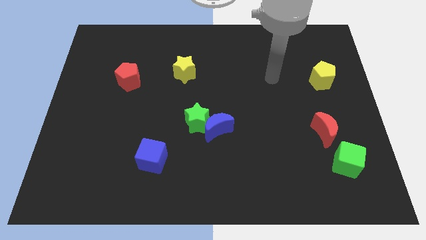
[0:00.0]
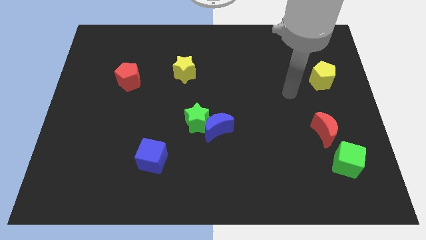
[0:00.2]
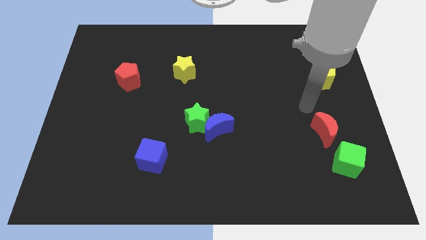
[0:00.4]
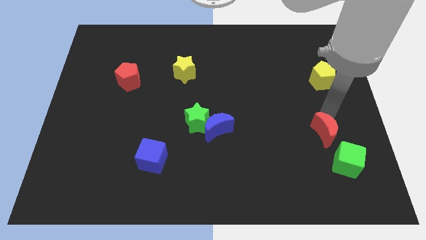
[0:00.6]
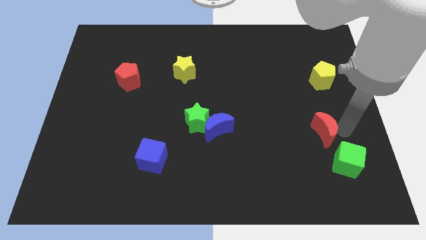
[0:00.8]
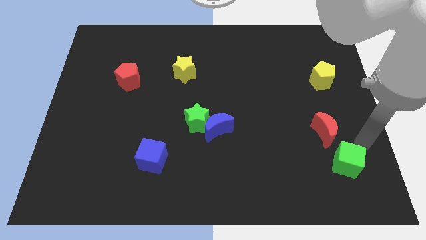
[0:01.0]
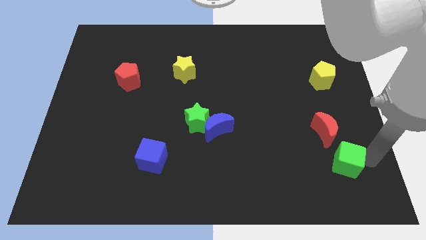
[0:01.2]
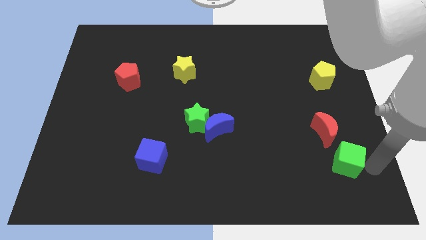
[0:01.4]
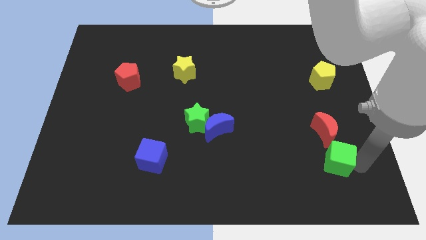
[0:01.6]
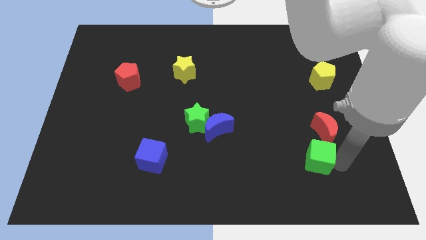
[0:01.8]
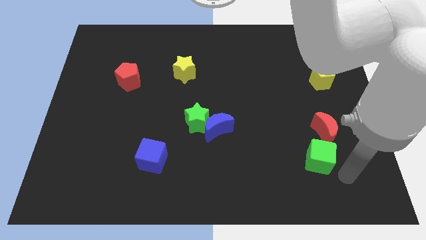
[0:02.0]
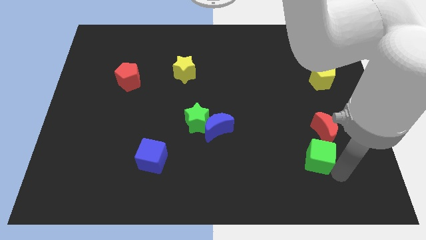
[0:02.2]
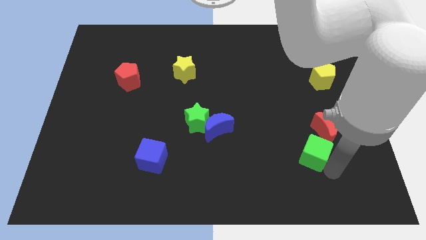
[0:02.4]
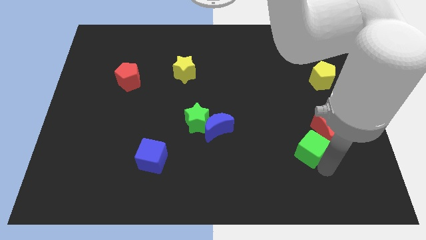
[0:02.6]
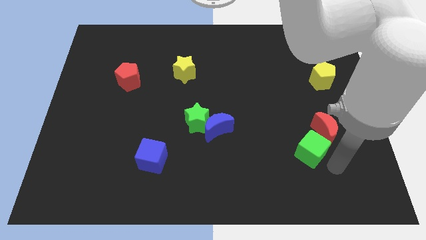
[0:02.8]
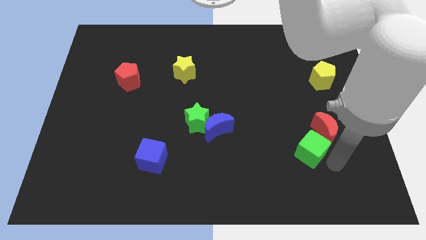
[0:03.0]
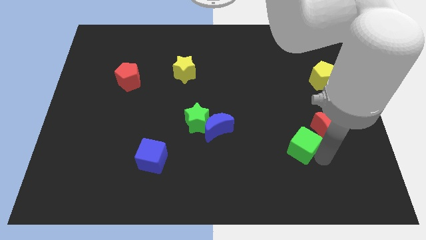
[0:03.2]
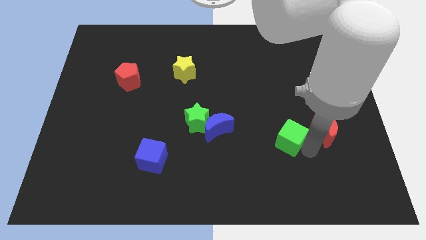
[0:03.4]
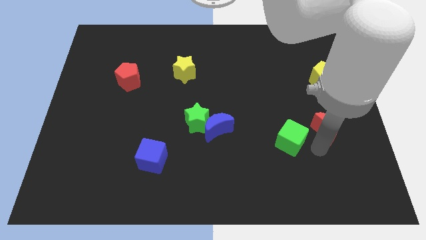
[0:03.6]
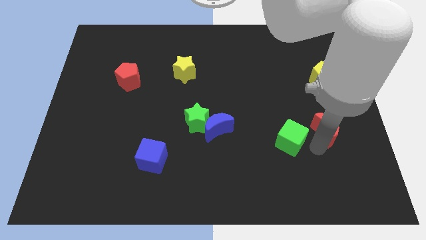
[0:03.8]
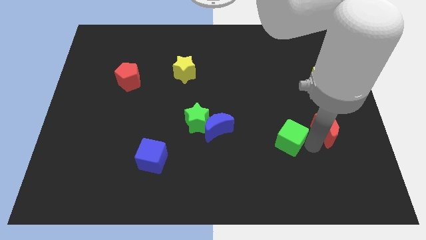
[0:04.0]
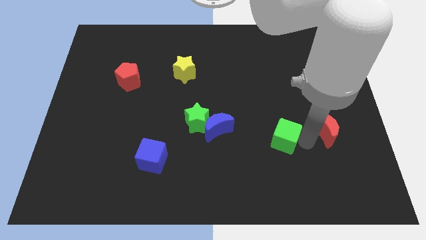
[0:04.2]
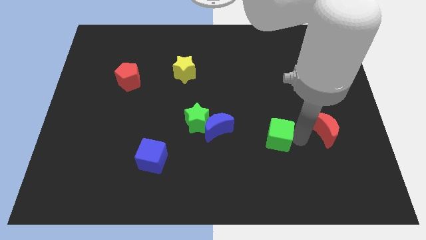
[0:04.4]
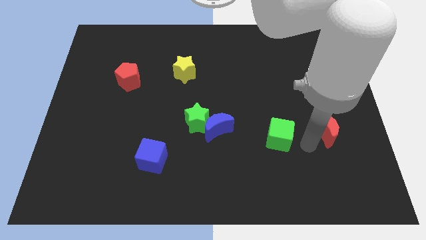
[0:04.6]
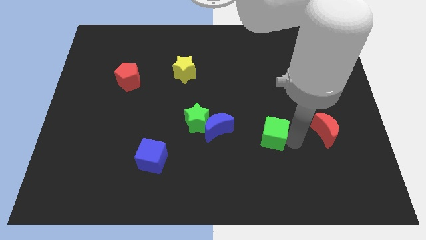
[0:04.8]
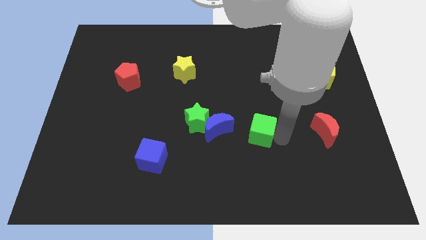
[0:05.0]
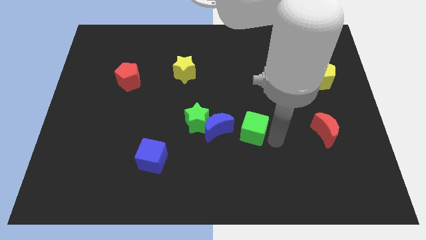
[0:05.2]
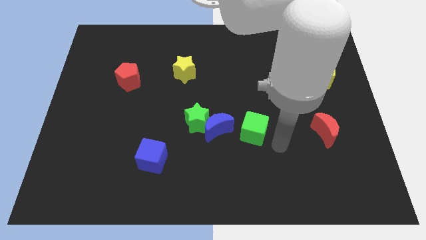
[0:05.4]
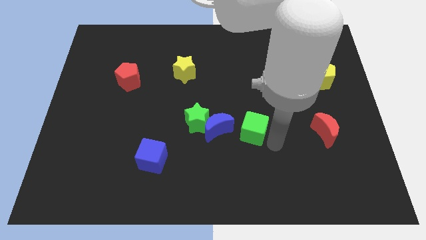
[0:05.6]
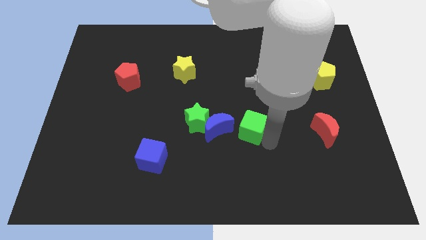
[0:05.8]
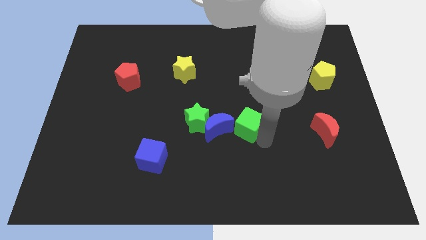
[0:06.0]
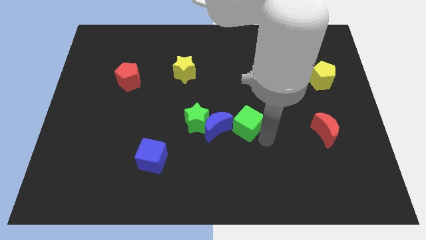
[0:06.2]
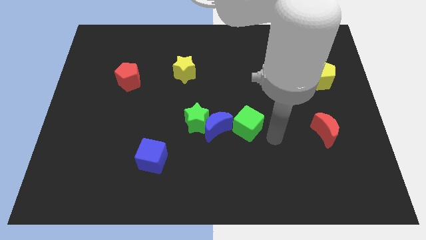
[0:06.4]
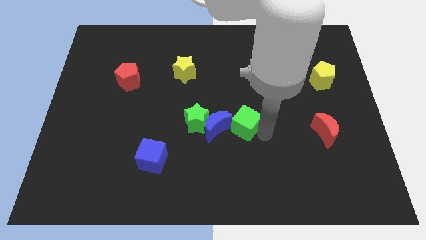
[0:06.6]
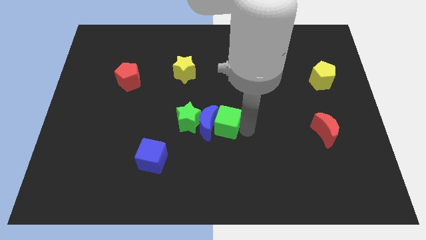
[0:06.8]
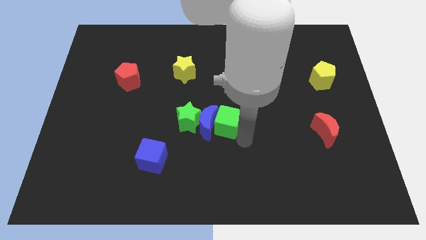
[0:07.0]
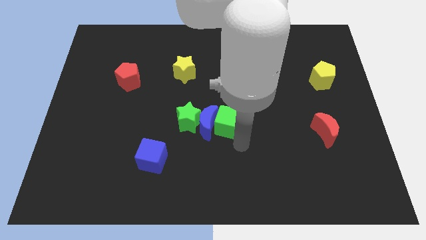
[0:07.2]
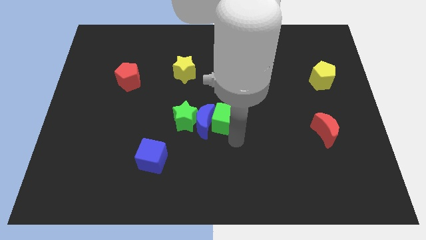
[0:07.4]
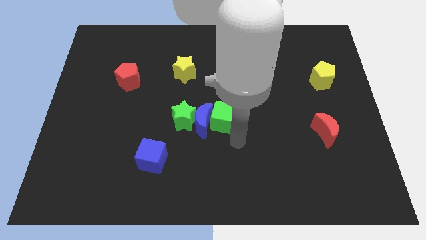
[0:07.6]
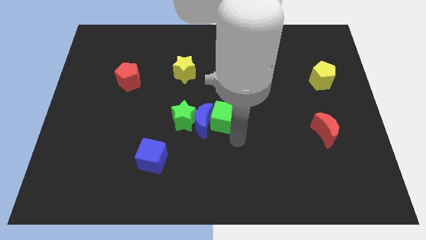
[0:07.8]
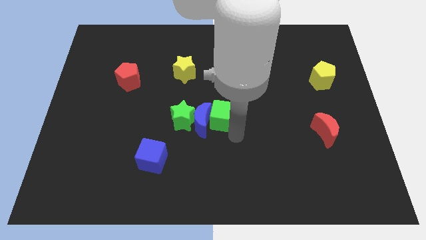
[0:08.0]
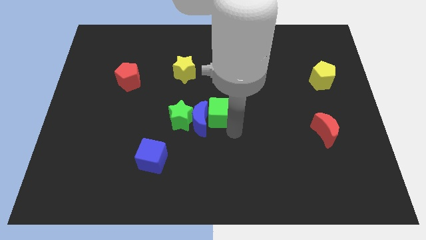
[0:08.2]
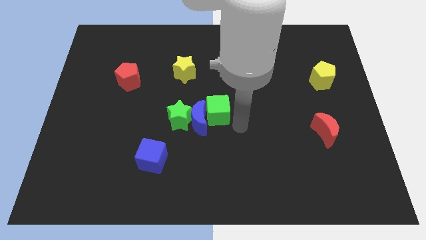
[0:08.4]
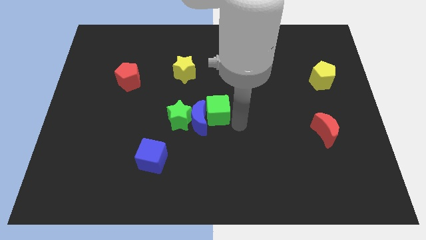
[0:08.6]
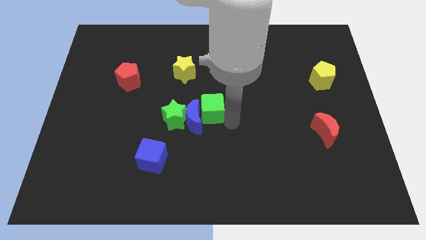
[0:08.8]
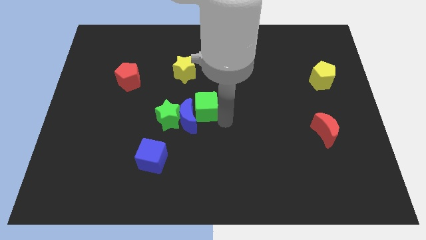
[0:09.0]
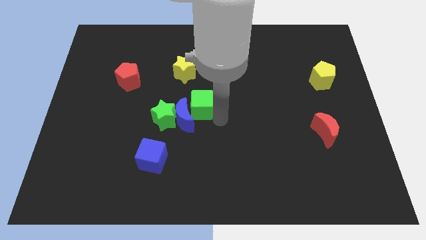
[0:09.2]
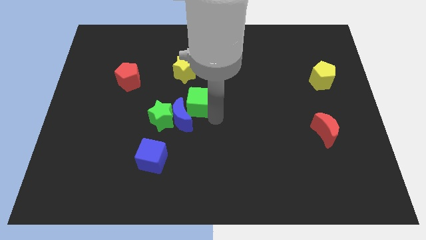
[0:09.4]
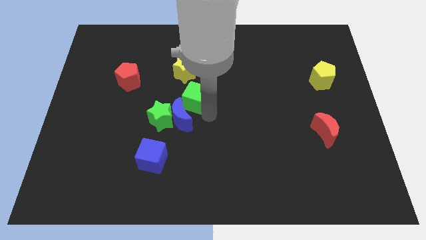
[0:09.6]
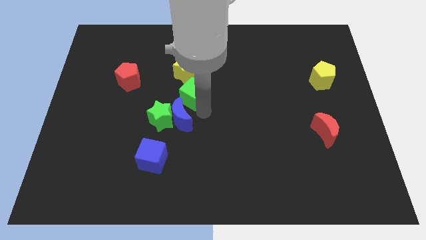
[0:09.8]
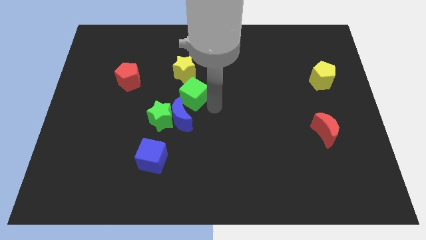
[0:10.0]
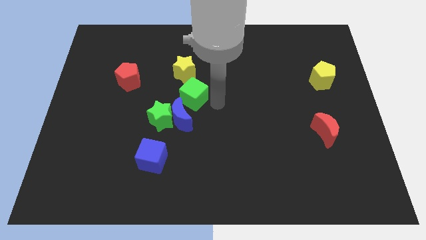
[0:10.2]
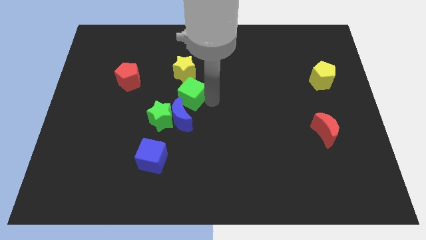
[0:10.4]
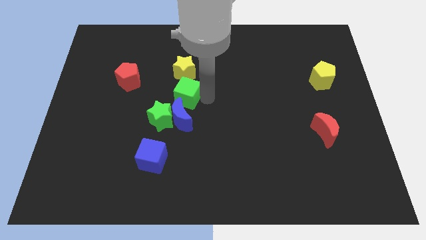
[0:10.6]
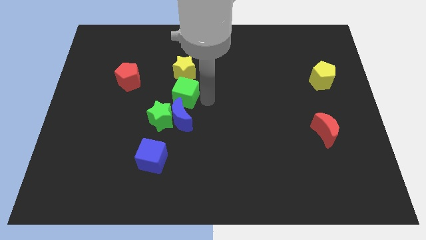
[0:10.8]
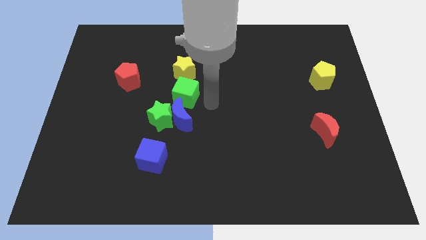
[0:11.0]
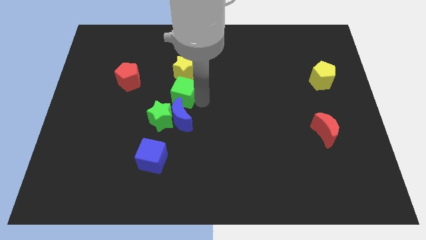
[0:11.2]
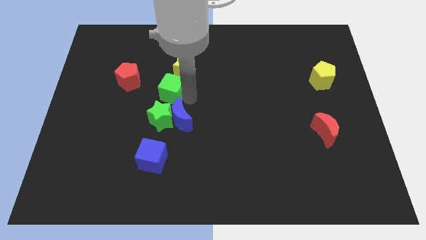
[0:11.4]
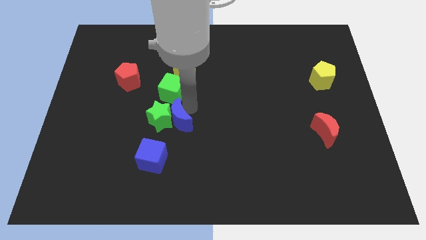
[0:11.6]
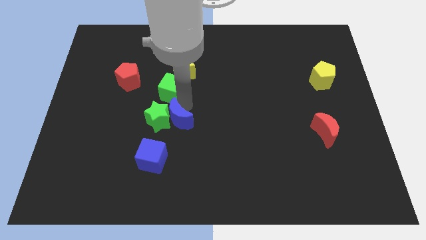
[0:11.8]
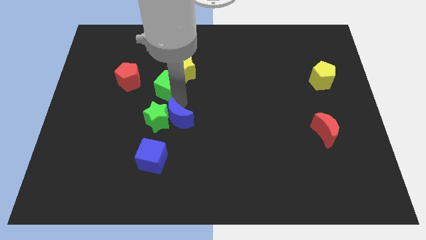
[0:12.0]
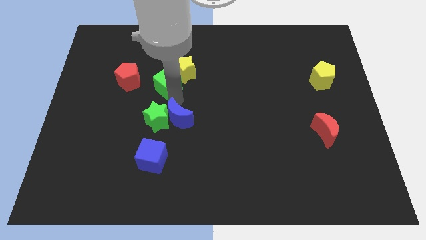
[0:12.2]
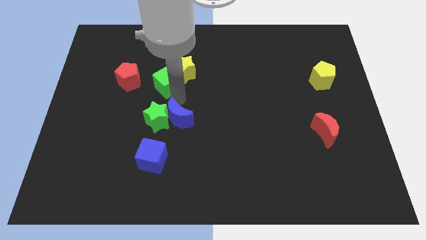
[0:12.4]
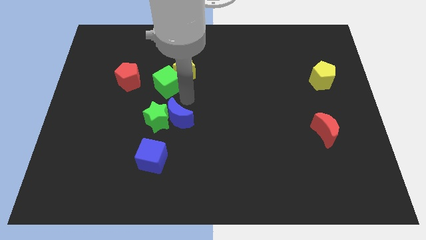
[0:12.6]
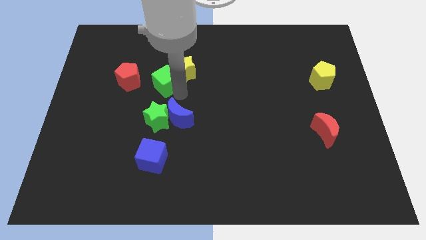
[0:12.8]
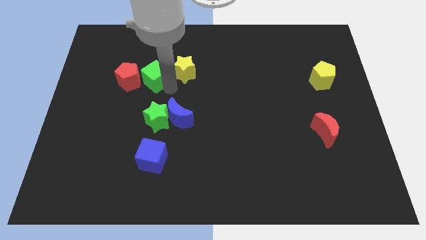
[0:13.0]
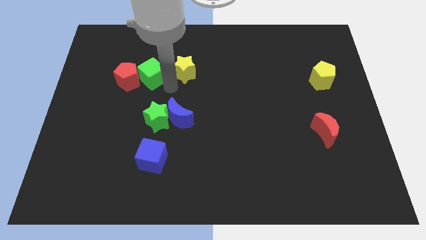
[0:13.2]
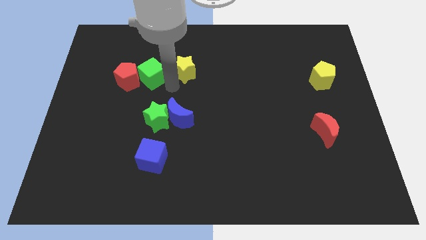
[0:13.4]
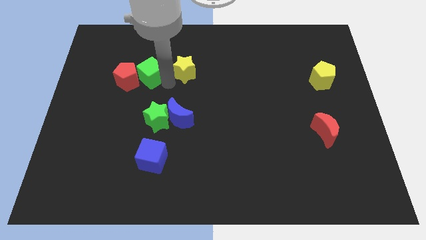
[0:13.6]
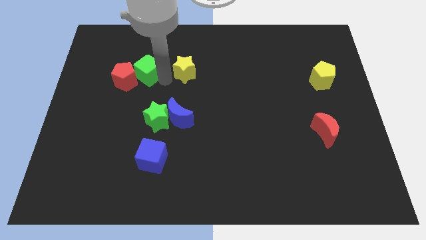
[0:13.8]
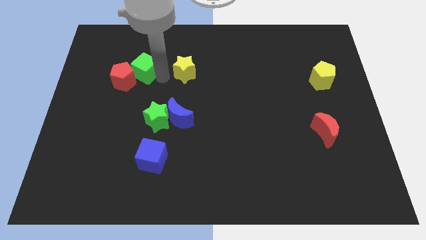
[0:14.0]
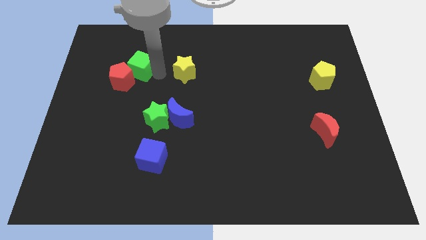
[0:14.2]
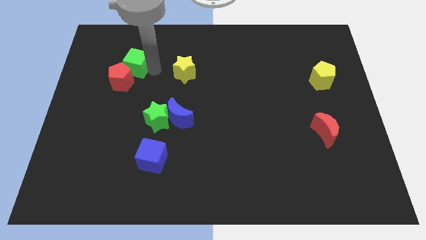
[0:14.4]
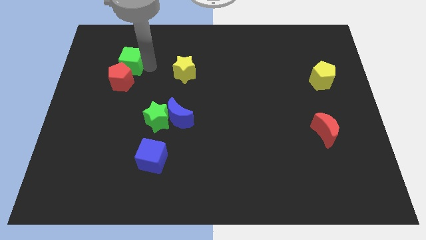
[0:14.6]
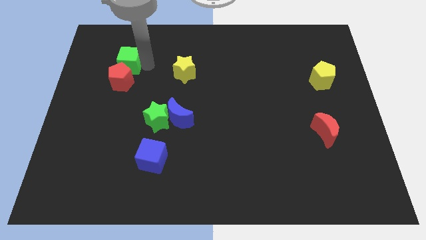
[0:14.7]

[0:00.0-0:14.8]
slide the green cube to the top left side of the red pentagon

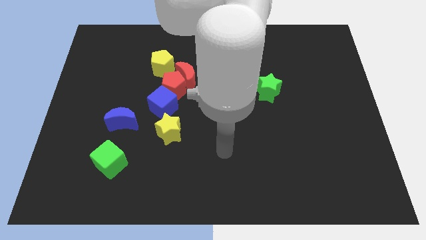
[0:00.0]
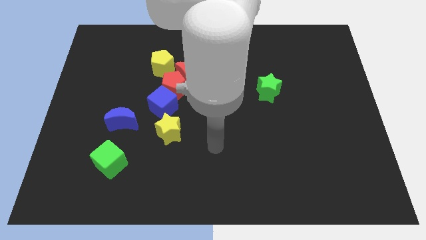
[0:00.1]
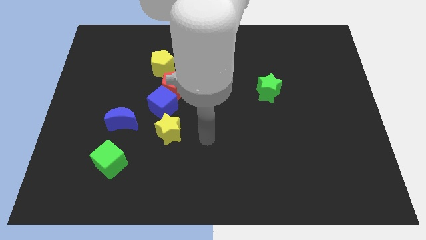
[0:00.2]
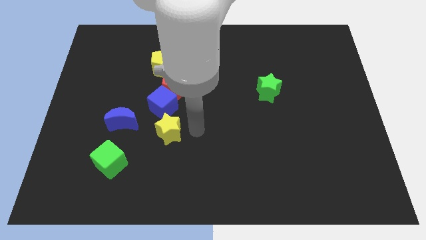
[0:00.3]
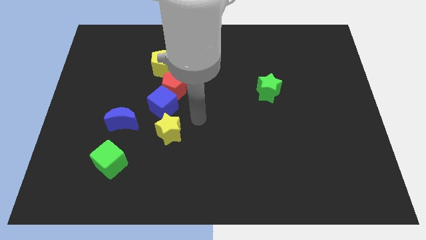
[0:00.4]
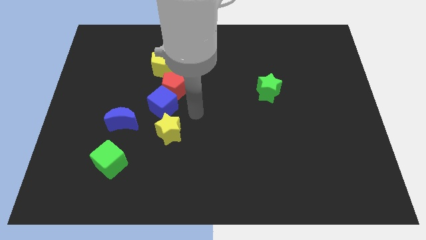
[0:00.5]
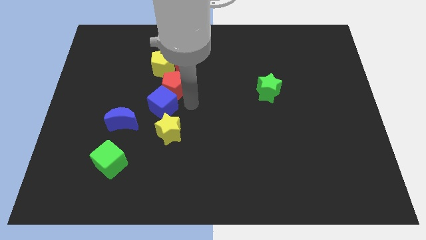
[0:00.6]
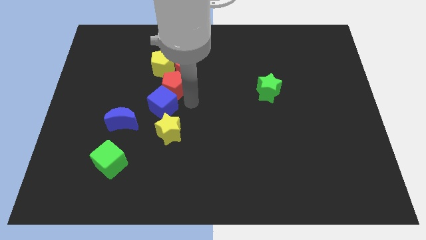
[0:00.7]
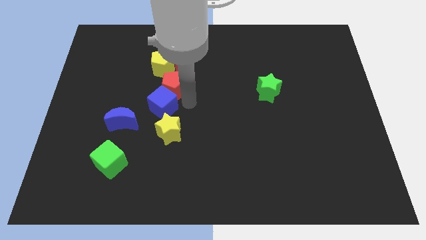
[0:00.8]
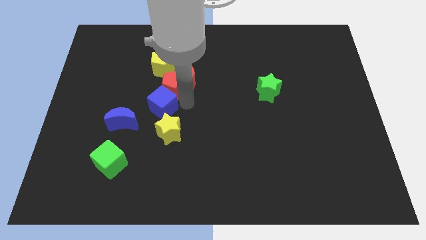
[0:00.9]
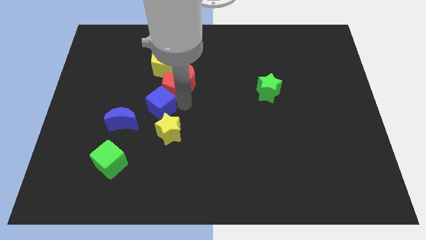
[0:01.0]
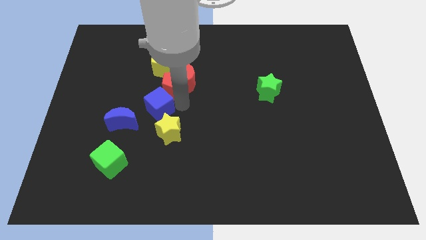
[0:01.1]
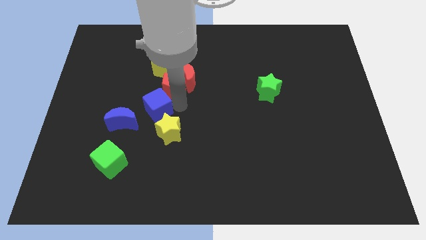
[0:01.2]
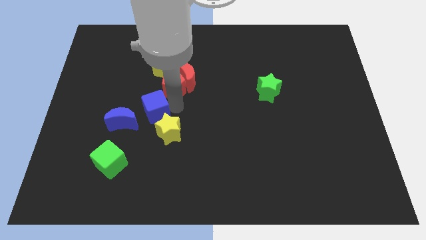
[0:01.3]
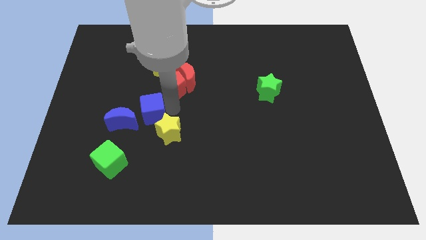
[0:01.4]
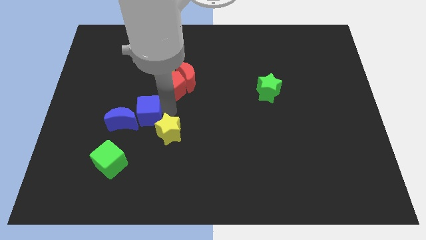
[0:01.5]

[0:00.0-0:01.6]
move the blue cube to the left side of the yellow star
